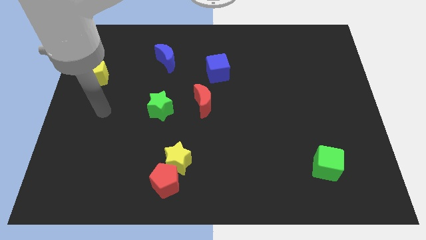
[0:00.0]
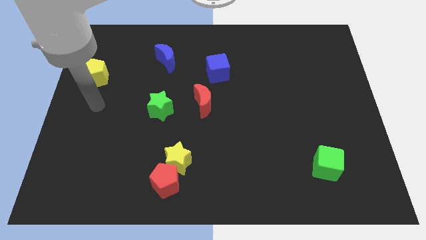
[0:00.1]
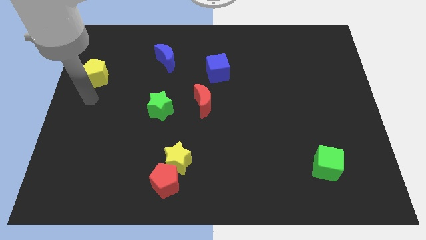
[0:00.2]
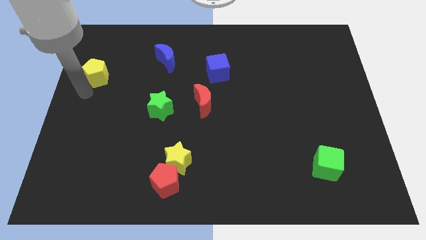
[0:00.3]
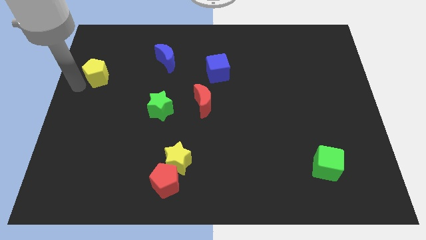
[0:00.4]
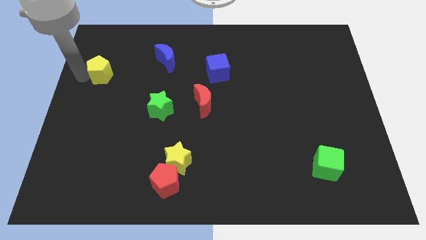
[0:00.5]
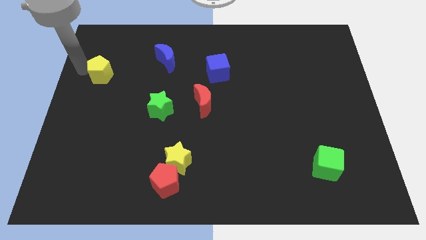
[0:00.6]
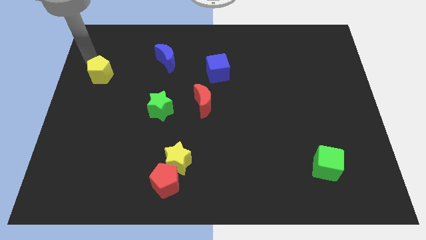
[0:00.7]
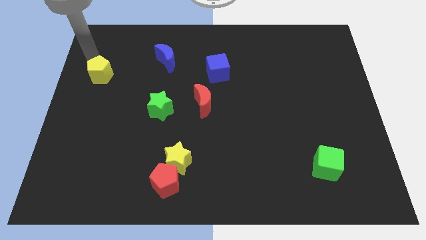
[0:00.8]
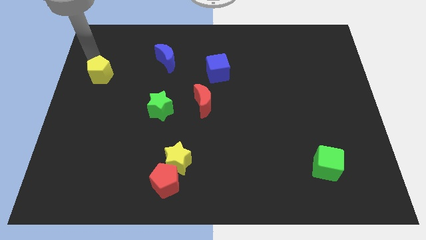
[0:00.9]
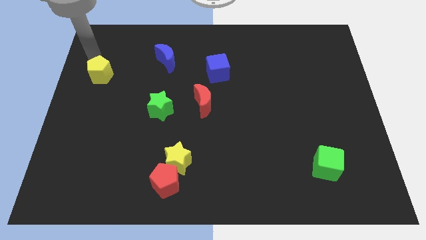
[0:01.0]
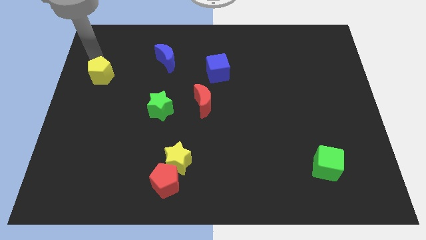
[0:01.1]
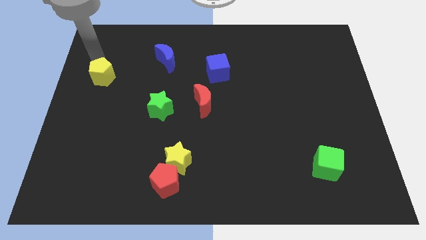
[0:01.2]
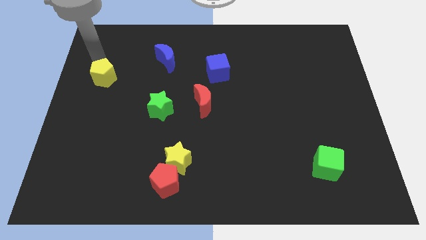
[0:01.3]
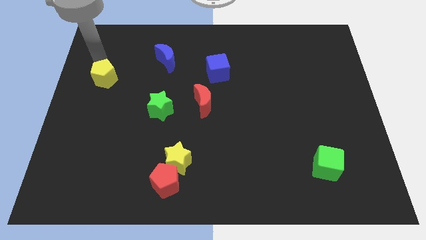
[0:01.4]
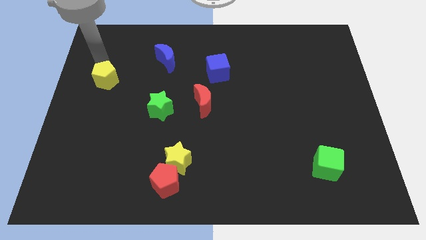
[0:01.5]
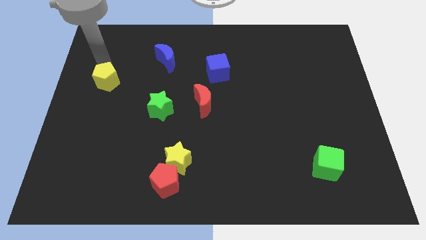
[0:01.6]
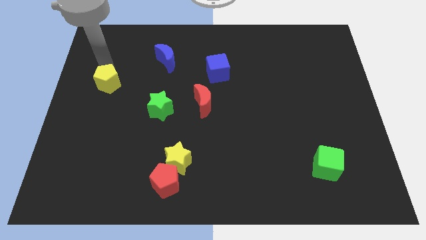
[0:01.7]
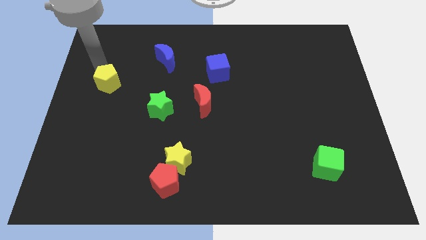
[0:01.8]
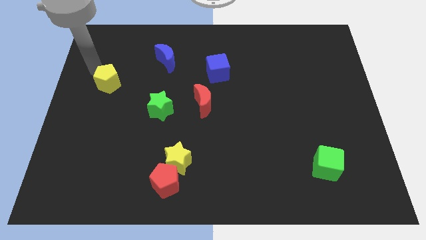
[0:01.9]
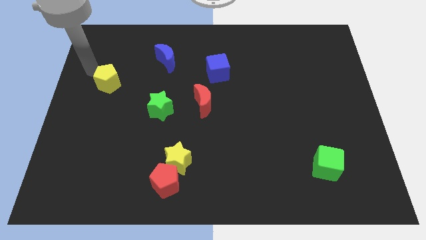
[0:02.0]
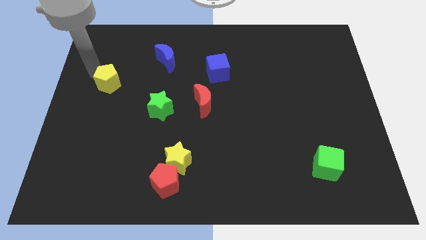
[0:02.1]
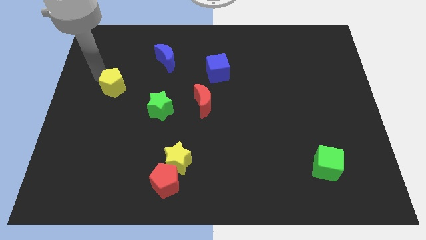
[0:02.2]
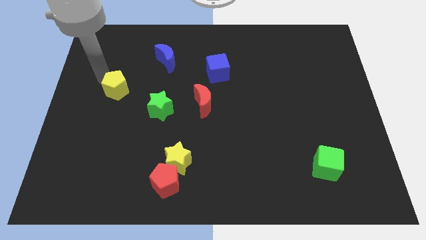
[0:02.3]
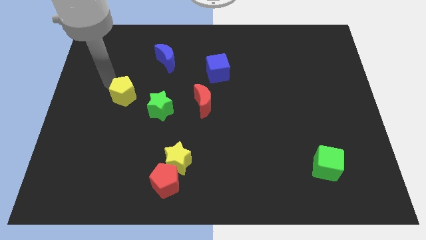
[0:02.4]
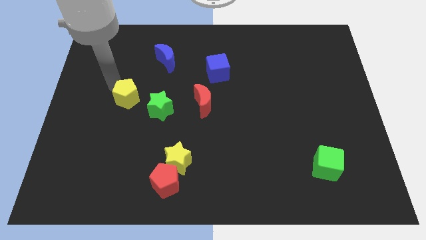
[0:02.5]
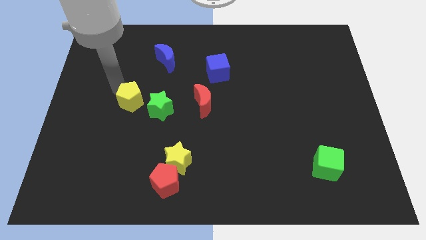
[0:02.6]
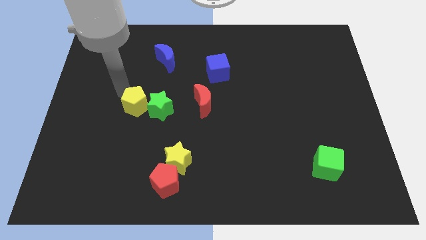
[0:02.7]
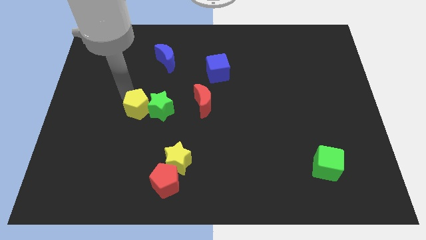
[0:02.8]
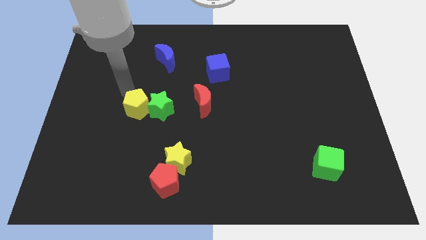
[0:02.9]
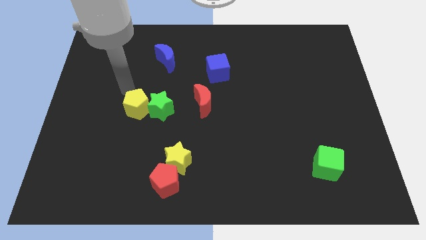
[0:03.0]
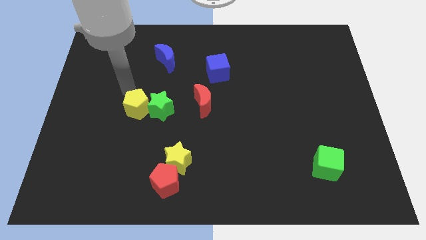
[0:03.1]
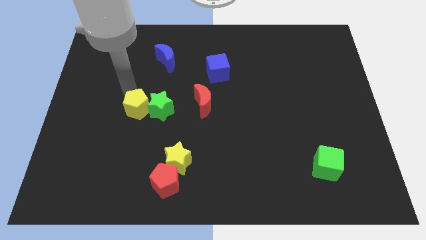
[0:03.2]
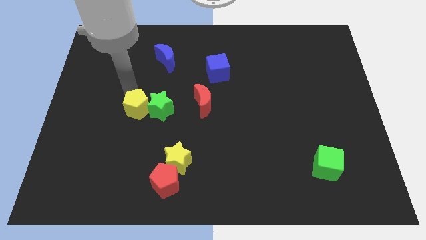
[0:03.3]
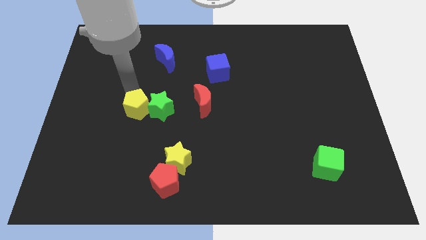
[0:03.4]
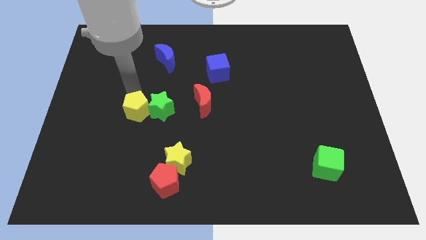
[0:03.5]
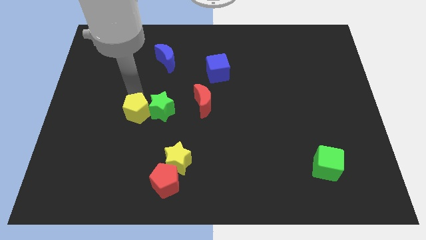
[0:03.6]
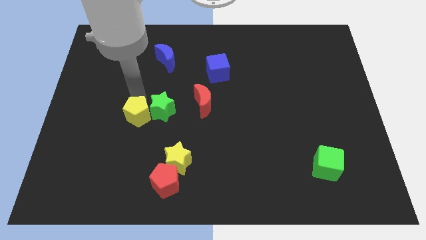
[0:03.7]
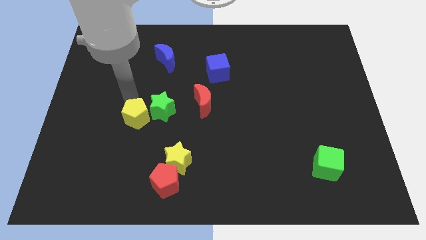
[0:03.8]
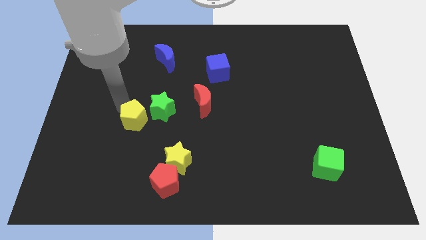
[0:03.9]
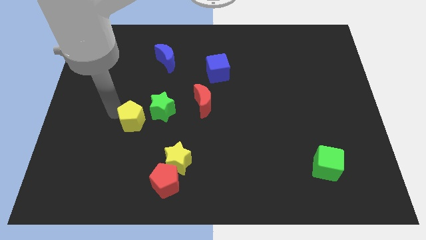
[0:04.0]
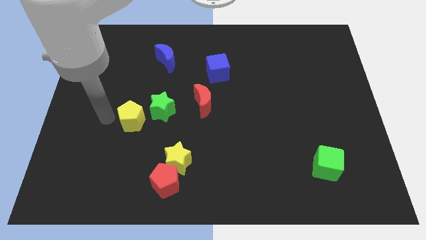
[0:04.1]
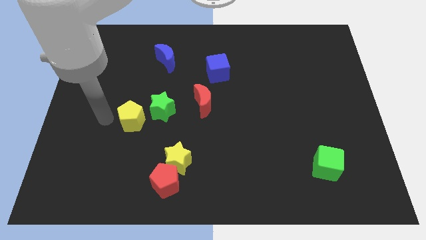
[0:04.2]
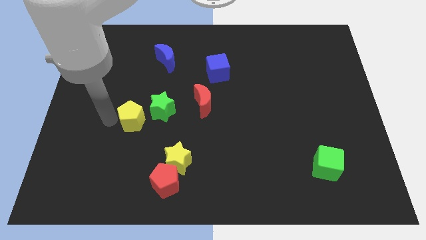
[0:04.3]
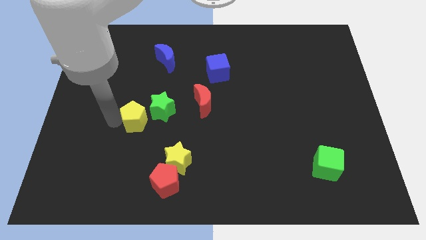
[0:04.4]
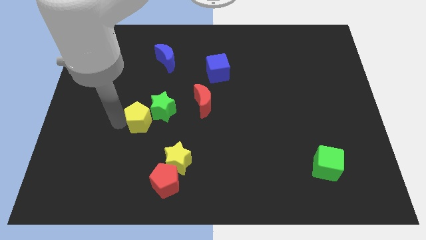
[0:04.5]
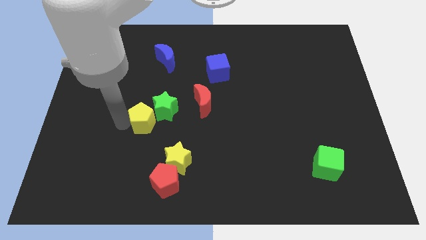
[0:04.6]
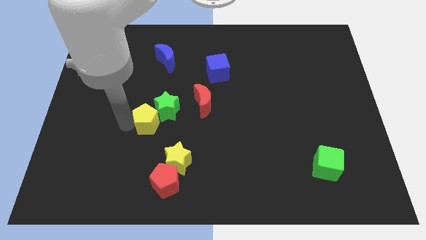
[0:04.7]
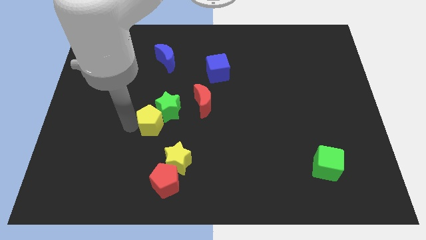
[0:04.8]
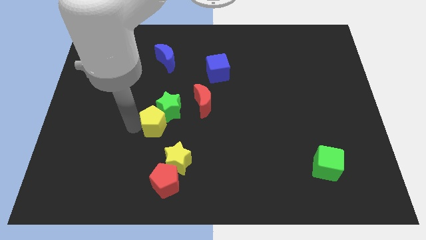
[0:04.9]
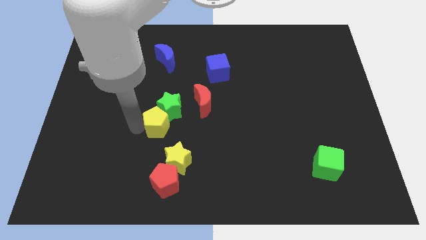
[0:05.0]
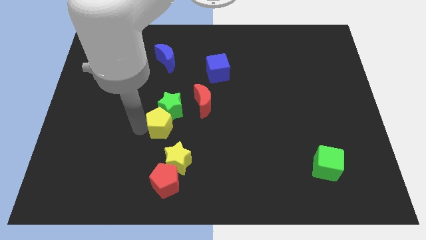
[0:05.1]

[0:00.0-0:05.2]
slide the yellow pentagon to the top side of the yellow star

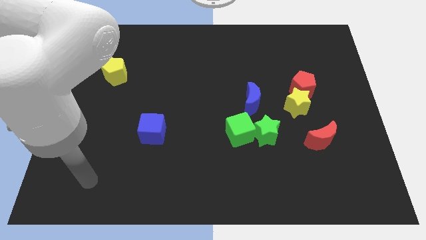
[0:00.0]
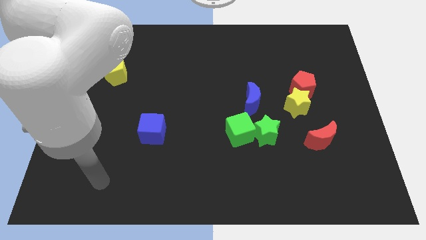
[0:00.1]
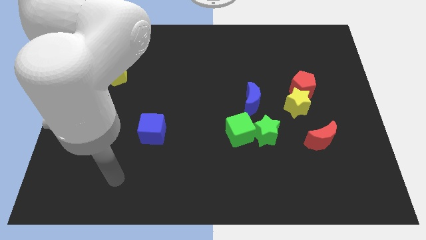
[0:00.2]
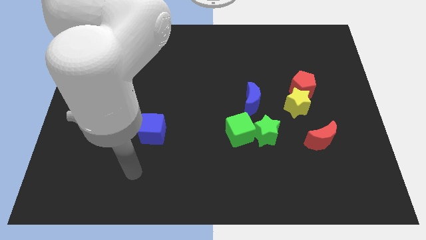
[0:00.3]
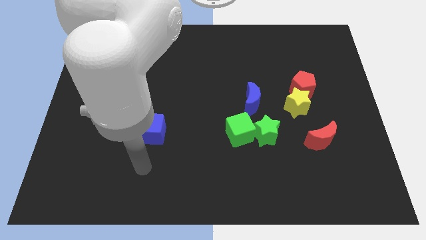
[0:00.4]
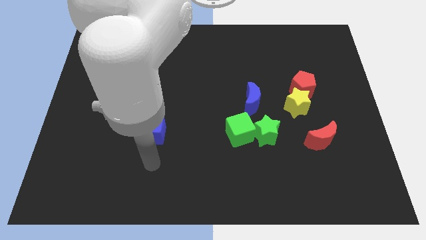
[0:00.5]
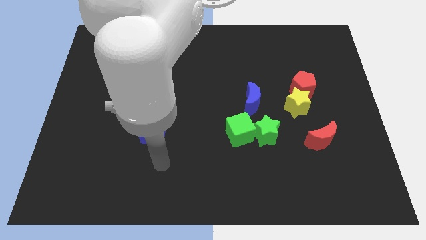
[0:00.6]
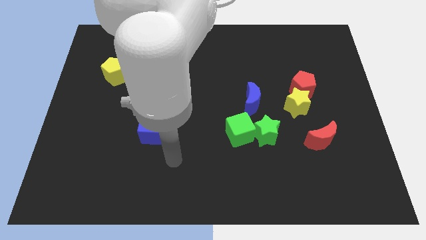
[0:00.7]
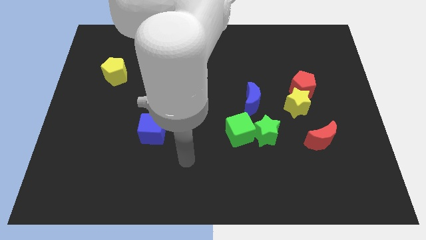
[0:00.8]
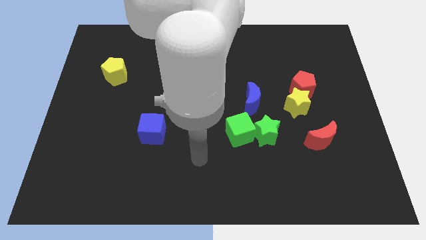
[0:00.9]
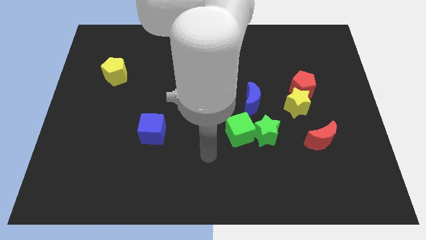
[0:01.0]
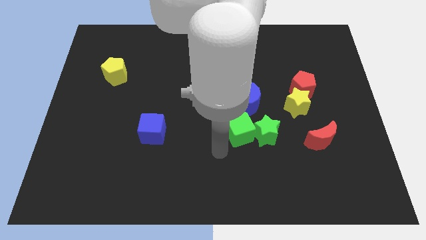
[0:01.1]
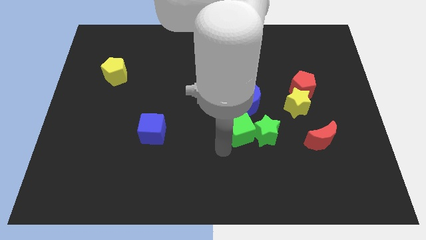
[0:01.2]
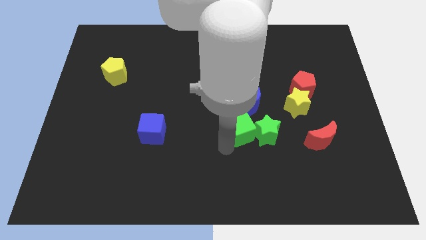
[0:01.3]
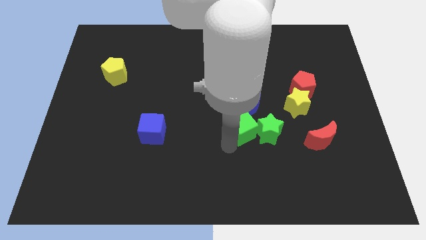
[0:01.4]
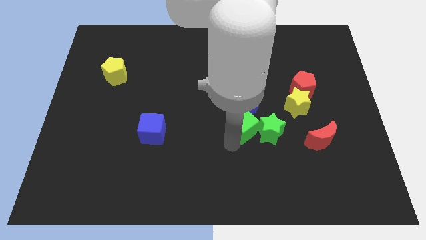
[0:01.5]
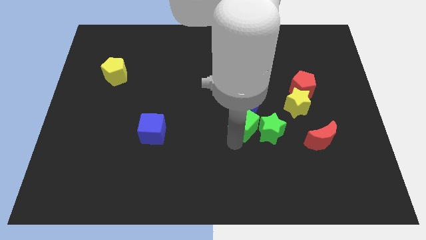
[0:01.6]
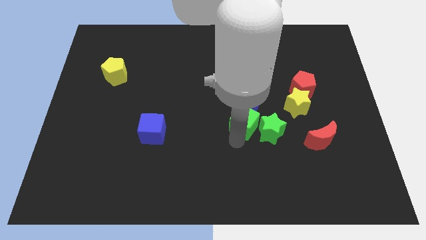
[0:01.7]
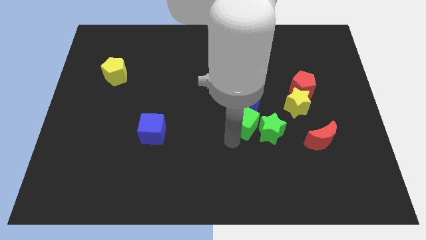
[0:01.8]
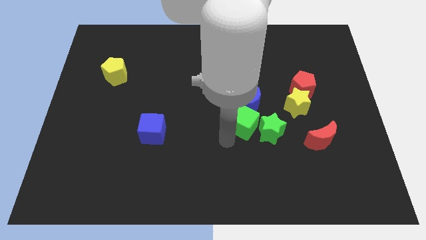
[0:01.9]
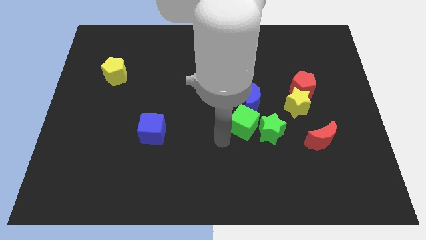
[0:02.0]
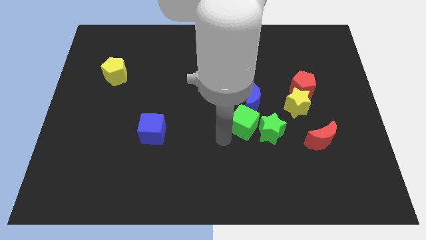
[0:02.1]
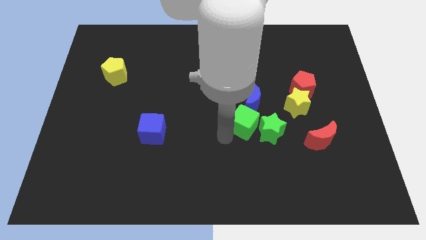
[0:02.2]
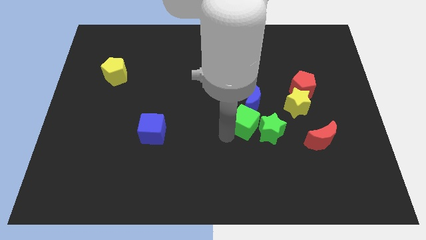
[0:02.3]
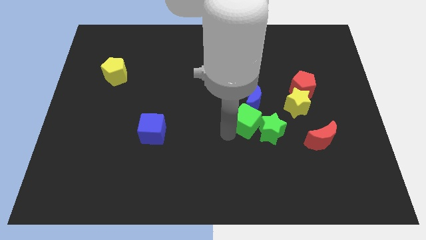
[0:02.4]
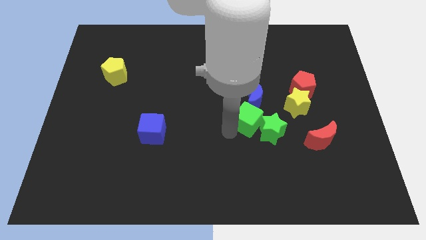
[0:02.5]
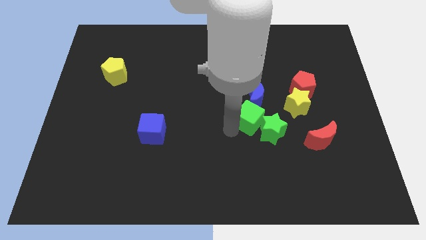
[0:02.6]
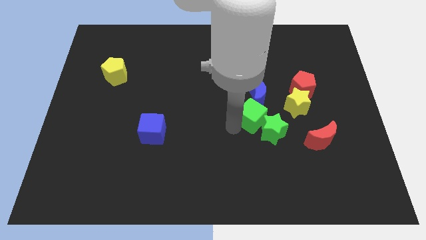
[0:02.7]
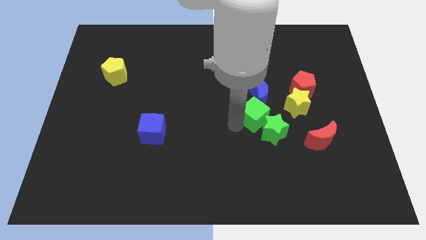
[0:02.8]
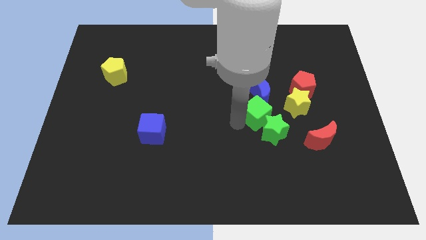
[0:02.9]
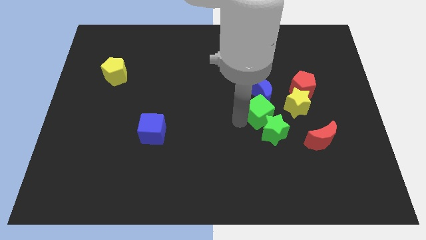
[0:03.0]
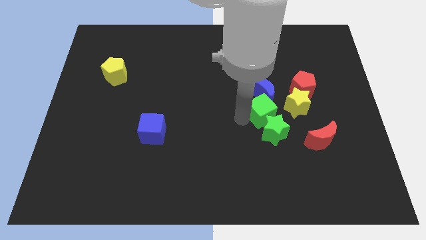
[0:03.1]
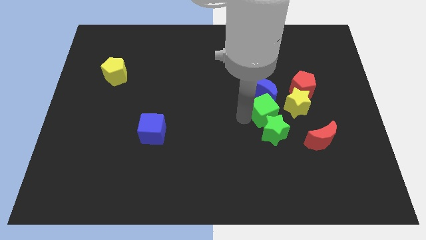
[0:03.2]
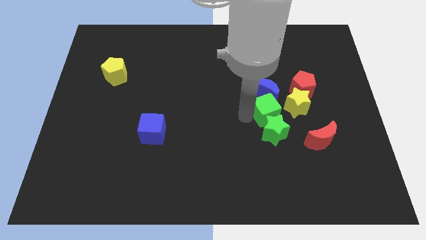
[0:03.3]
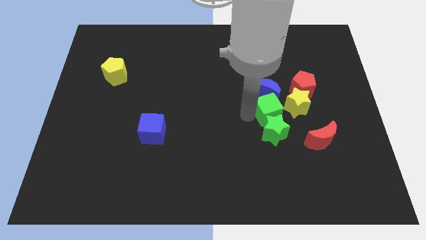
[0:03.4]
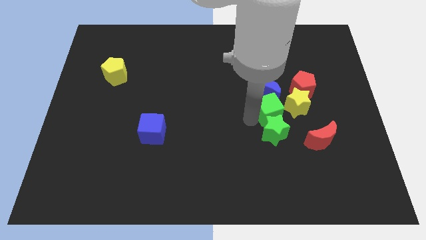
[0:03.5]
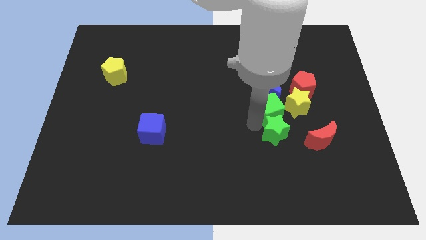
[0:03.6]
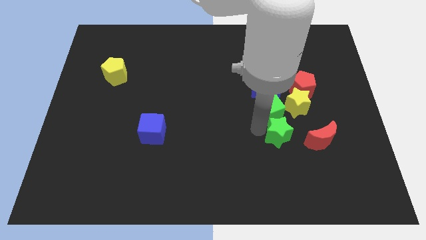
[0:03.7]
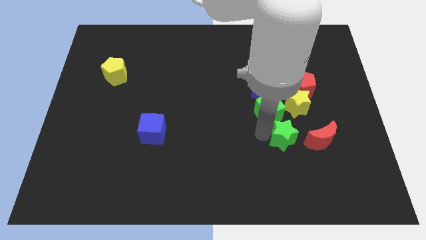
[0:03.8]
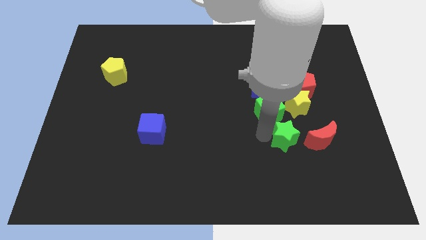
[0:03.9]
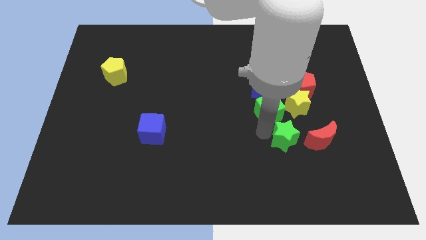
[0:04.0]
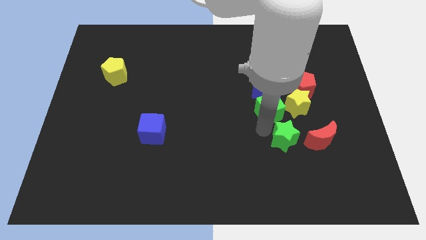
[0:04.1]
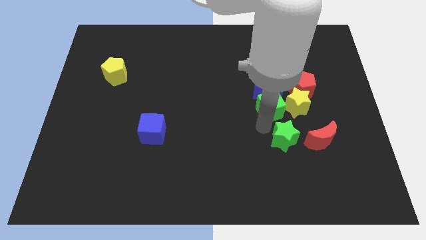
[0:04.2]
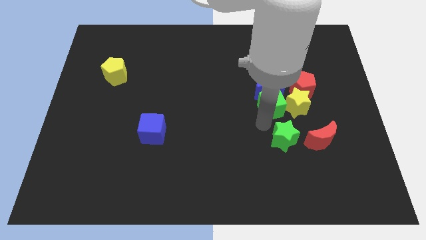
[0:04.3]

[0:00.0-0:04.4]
put the green cube to the top left side of the yellow star
